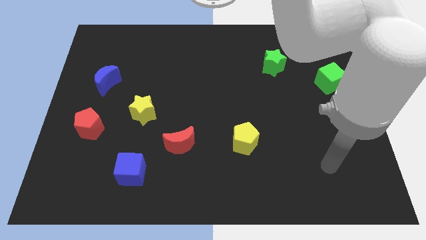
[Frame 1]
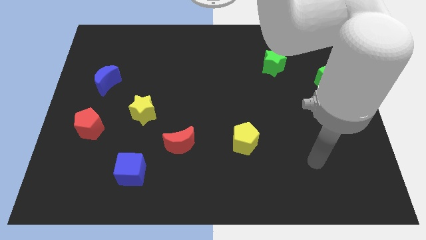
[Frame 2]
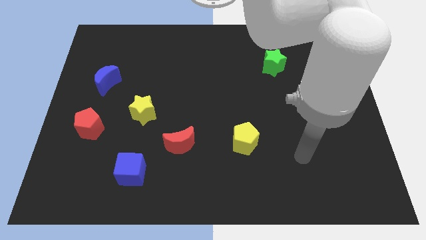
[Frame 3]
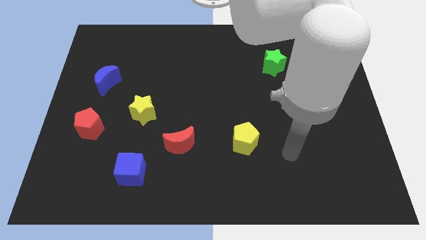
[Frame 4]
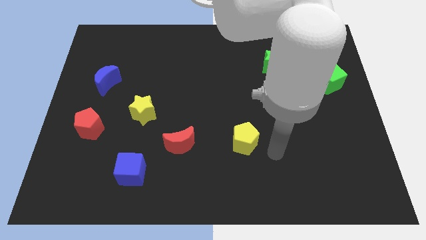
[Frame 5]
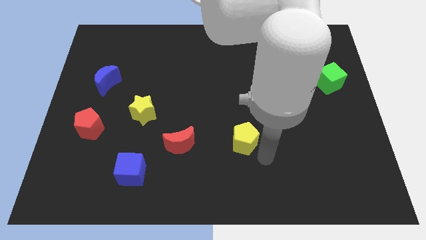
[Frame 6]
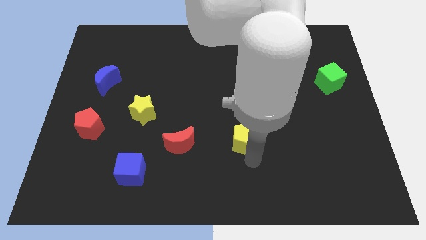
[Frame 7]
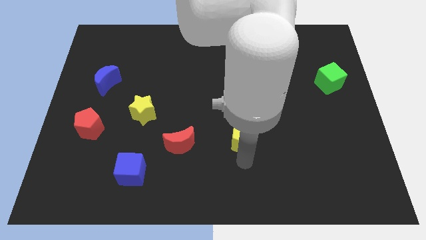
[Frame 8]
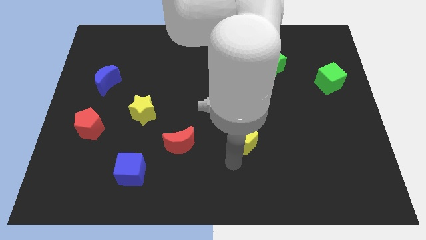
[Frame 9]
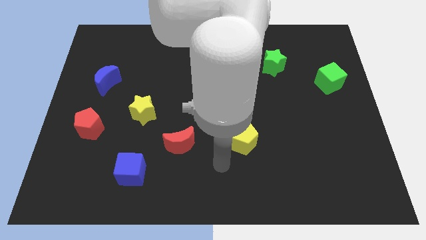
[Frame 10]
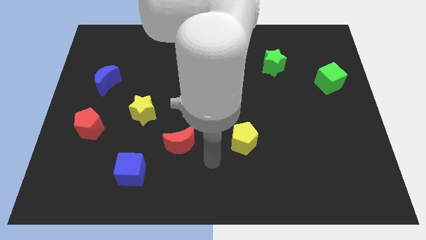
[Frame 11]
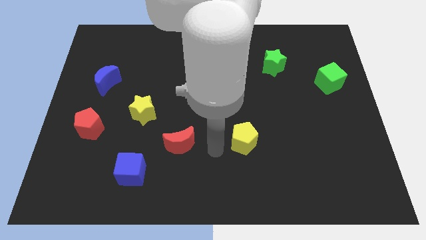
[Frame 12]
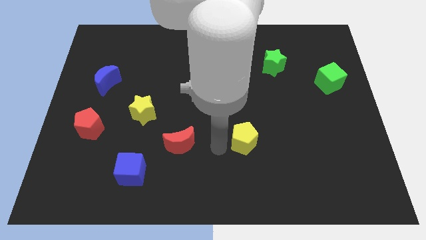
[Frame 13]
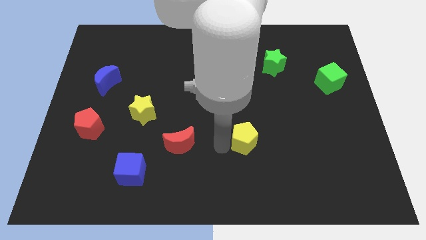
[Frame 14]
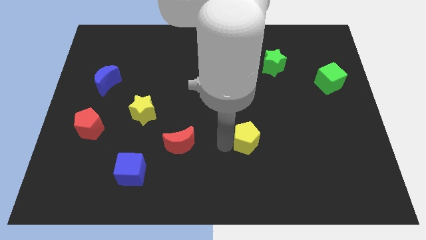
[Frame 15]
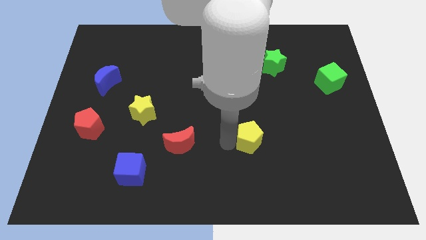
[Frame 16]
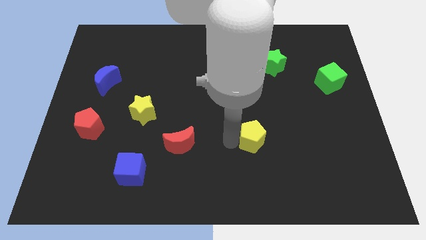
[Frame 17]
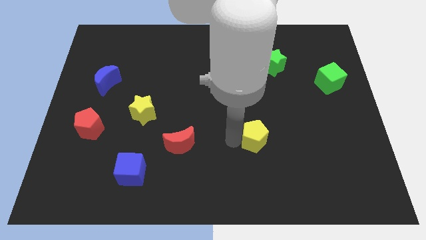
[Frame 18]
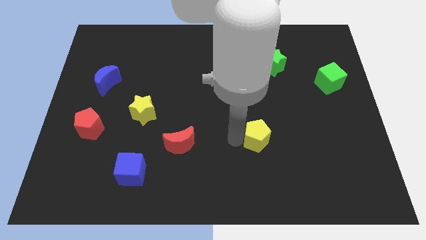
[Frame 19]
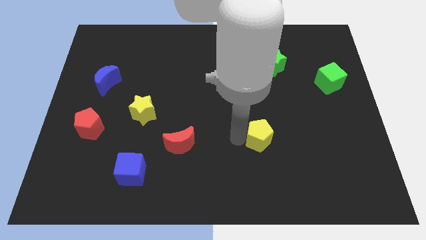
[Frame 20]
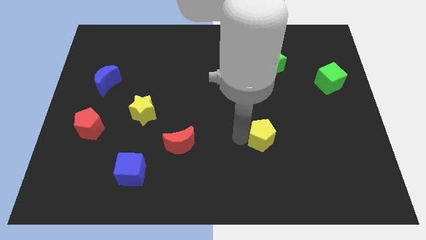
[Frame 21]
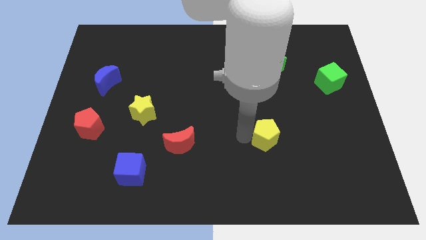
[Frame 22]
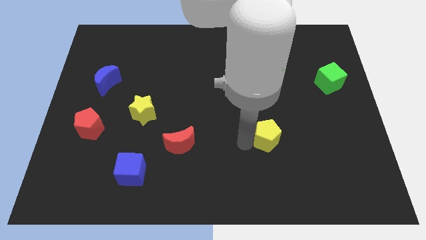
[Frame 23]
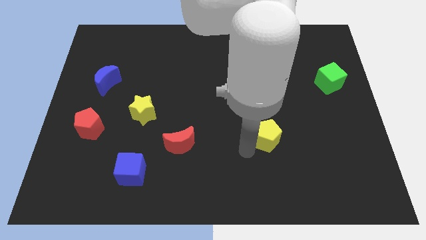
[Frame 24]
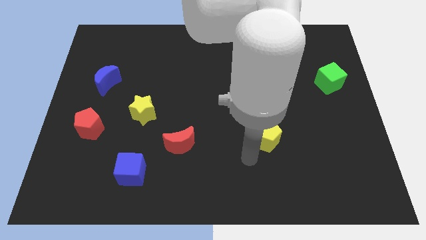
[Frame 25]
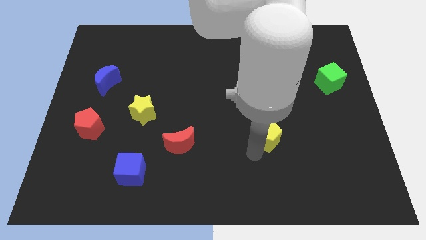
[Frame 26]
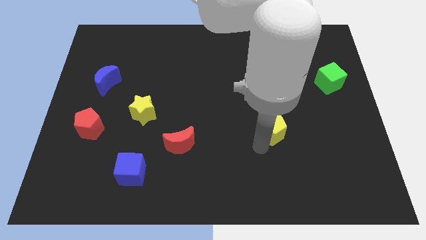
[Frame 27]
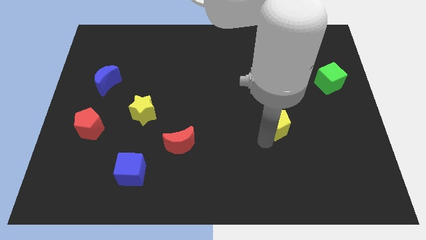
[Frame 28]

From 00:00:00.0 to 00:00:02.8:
move the yellow pentagon diagonally up and to the right a little

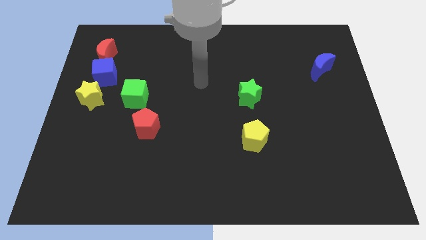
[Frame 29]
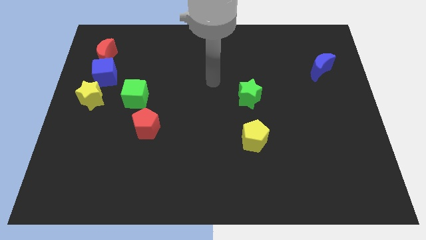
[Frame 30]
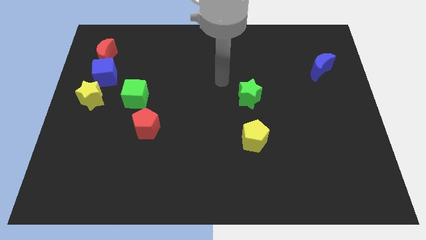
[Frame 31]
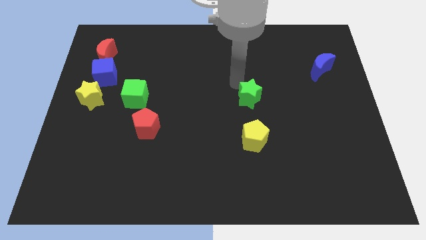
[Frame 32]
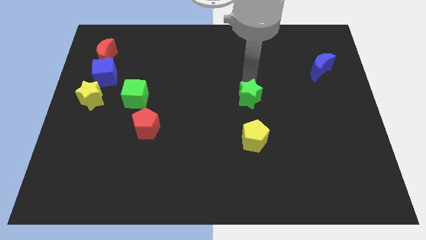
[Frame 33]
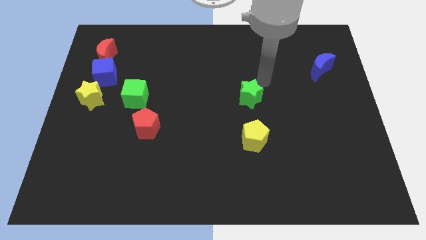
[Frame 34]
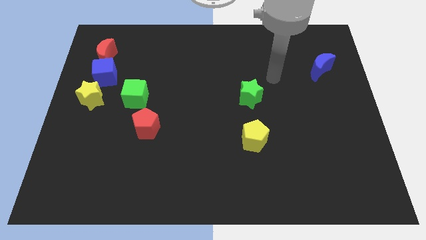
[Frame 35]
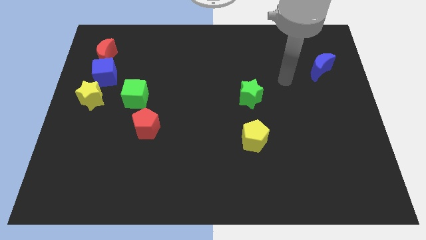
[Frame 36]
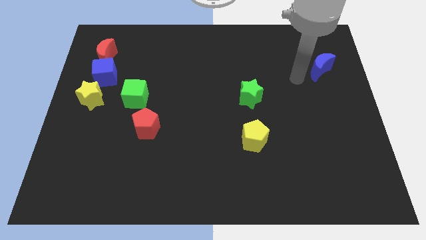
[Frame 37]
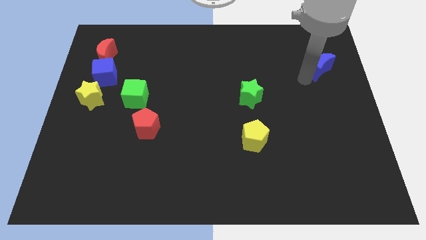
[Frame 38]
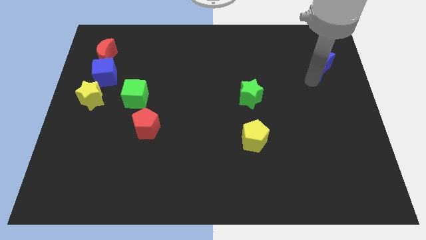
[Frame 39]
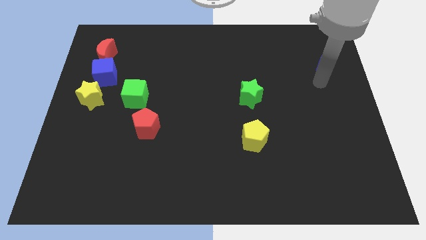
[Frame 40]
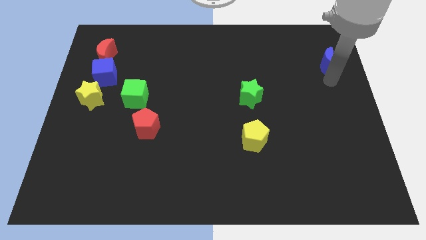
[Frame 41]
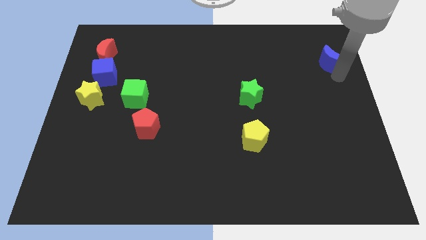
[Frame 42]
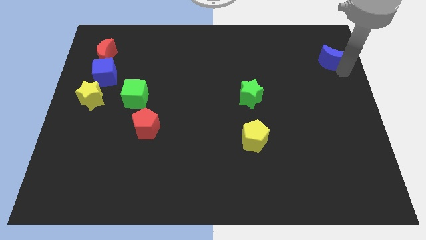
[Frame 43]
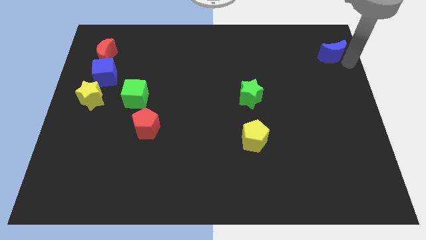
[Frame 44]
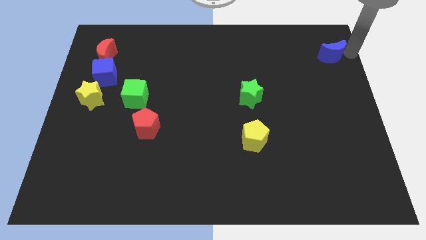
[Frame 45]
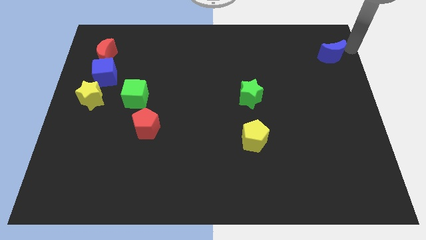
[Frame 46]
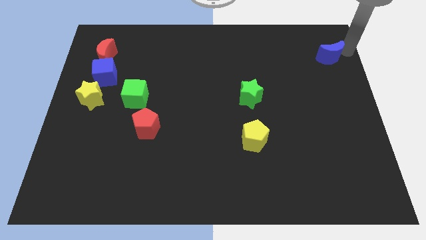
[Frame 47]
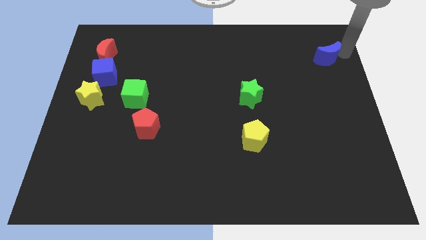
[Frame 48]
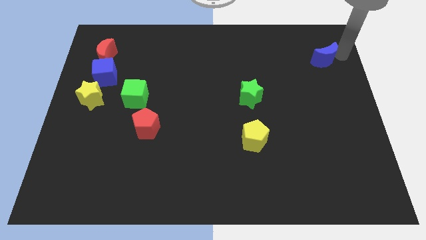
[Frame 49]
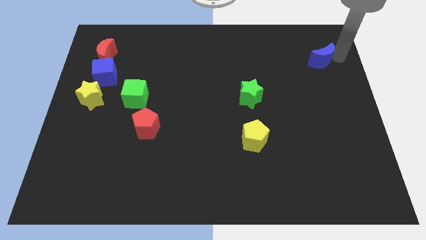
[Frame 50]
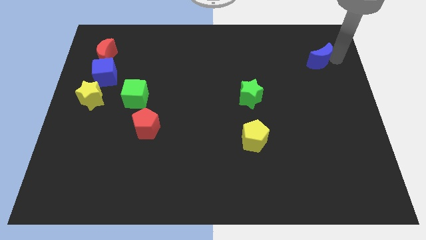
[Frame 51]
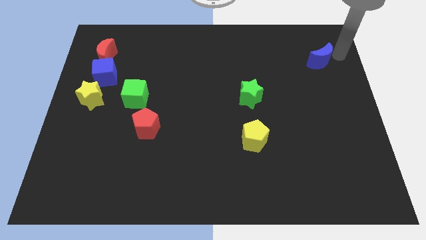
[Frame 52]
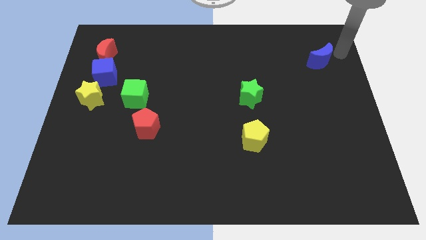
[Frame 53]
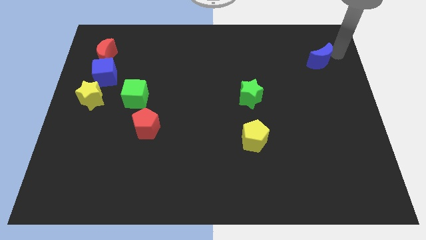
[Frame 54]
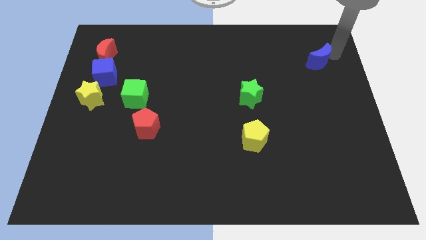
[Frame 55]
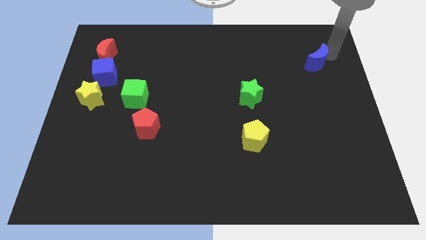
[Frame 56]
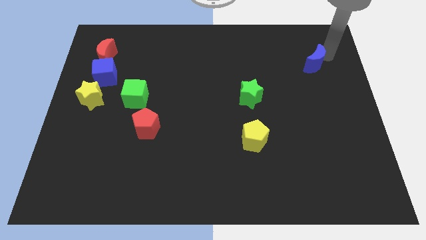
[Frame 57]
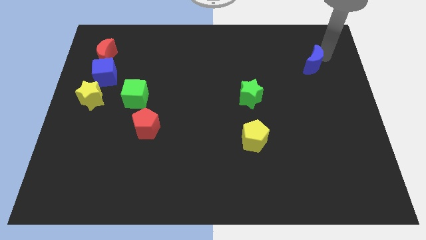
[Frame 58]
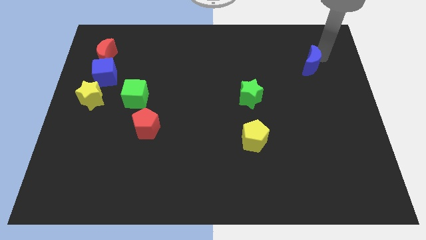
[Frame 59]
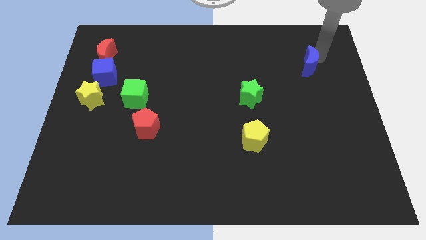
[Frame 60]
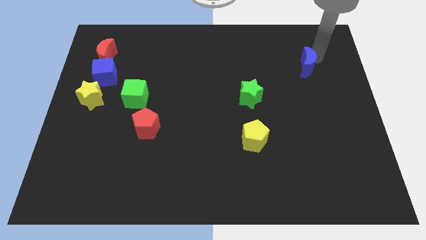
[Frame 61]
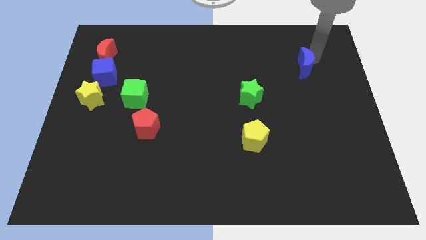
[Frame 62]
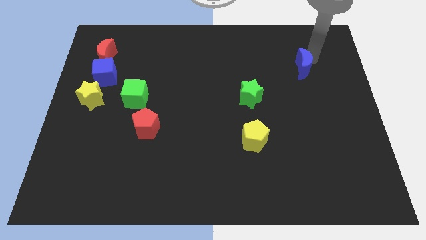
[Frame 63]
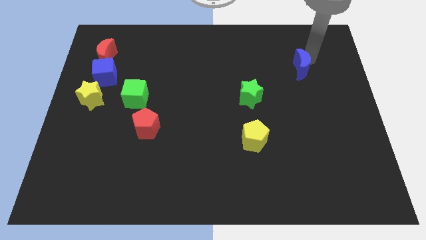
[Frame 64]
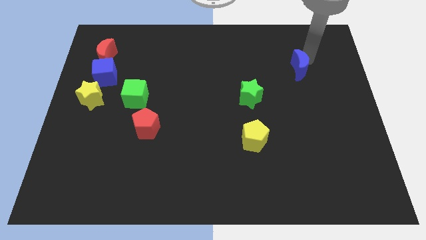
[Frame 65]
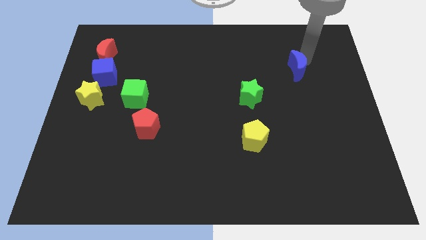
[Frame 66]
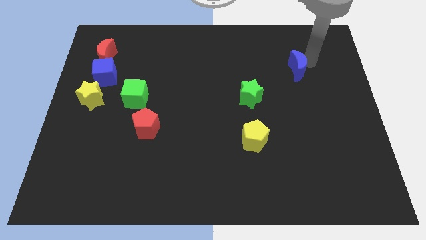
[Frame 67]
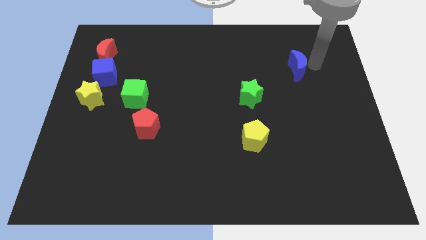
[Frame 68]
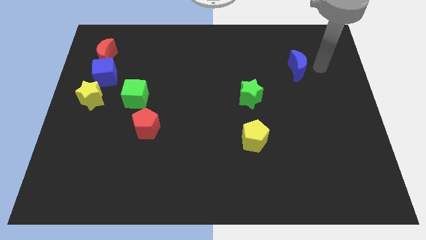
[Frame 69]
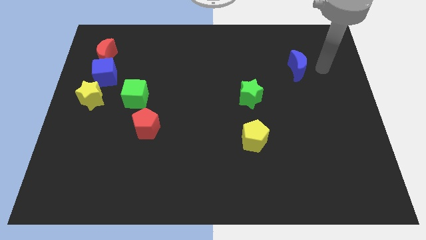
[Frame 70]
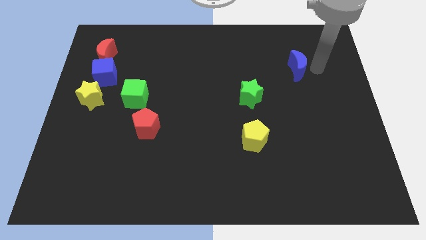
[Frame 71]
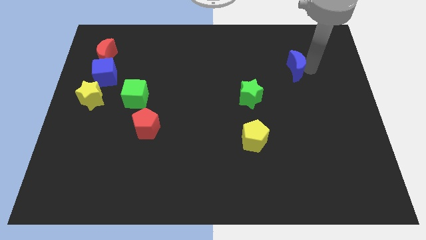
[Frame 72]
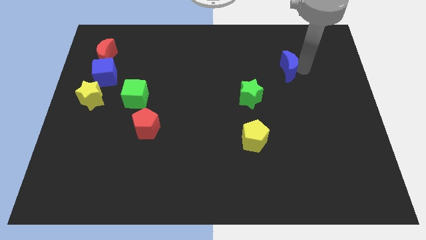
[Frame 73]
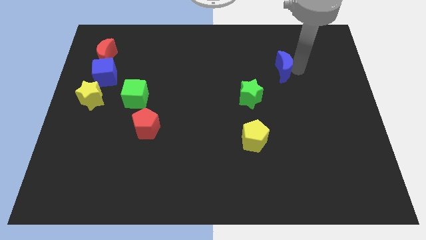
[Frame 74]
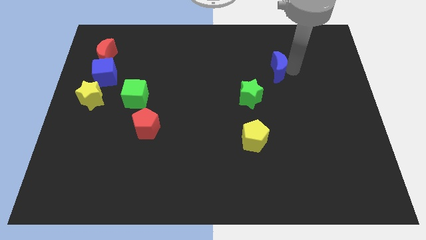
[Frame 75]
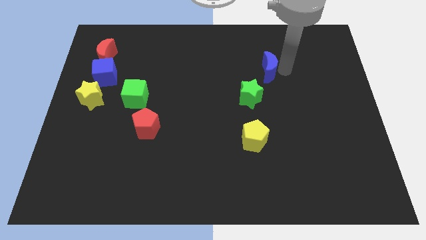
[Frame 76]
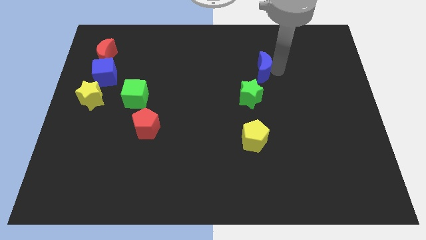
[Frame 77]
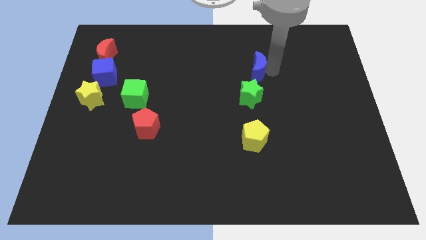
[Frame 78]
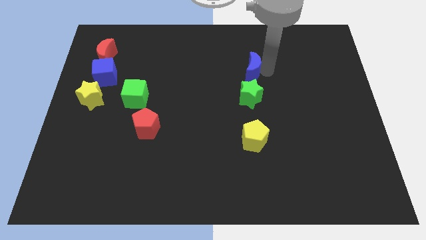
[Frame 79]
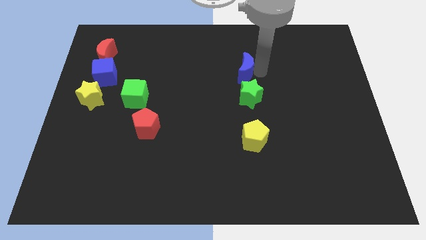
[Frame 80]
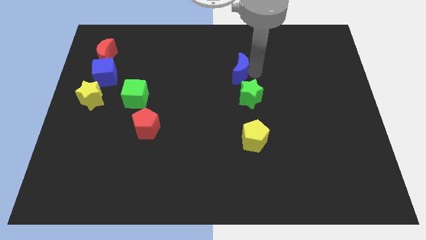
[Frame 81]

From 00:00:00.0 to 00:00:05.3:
push the blue moon left
